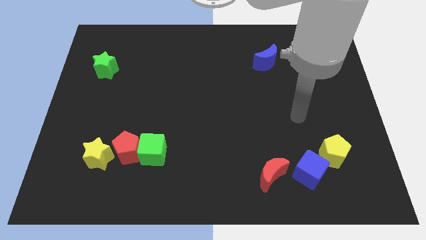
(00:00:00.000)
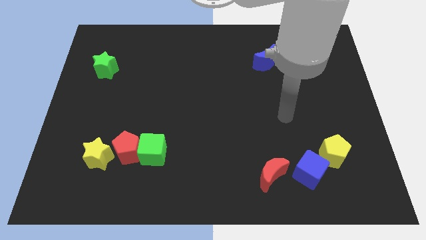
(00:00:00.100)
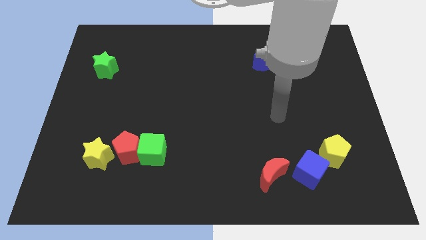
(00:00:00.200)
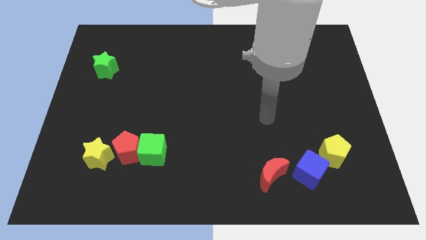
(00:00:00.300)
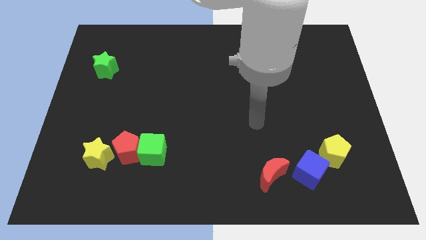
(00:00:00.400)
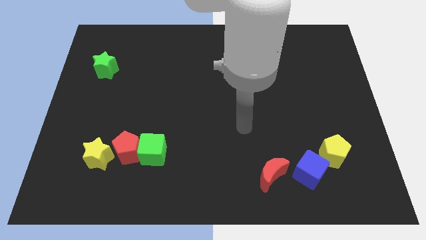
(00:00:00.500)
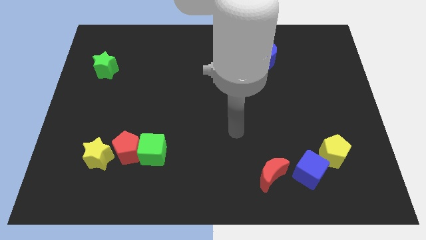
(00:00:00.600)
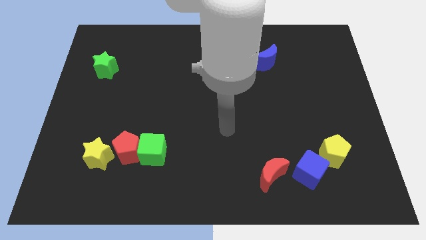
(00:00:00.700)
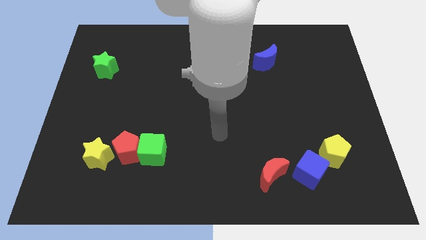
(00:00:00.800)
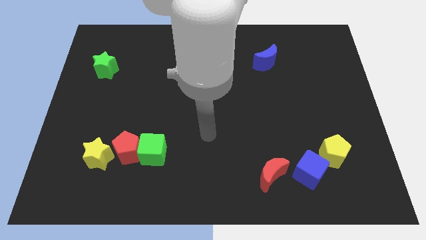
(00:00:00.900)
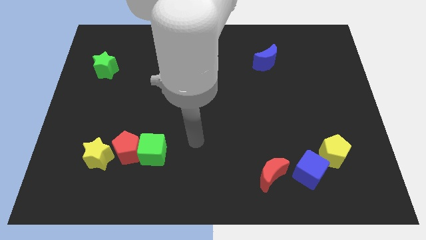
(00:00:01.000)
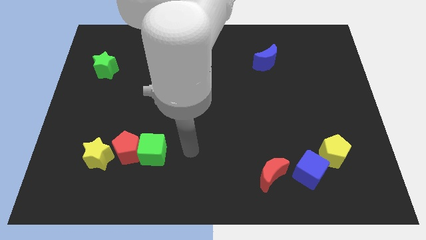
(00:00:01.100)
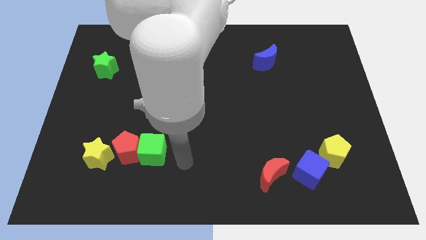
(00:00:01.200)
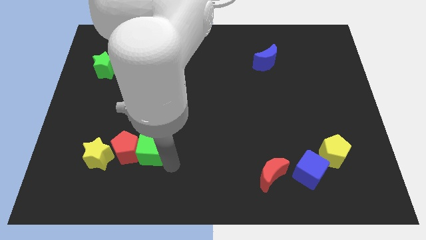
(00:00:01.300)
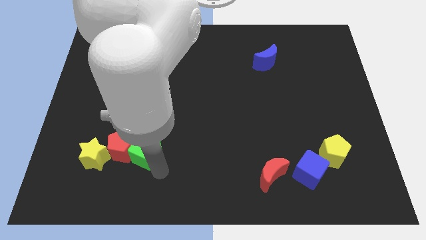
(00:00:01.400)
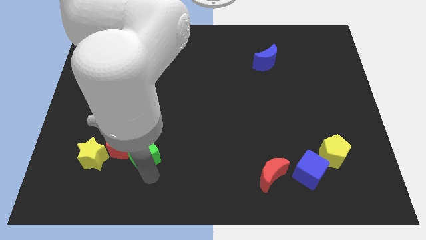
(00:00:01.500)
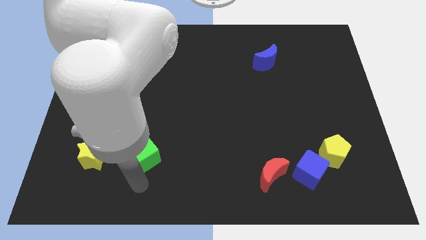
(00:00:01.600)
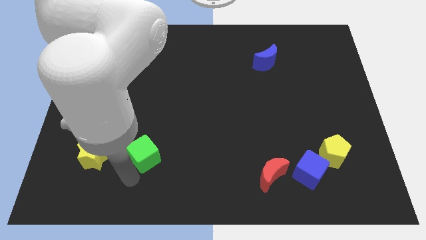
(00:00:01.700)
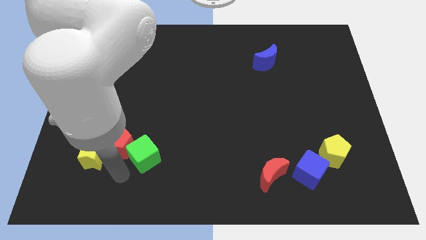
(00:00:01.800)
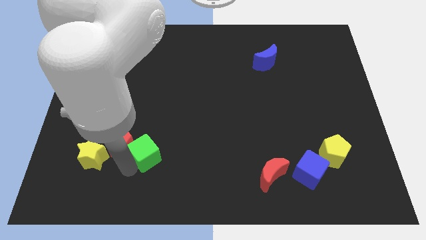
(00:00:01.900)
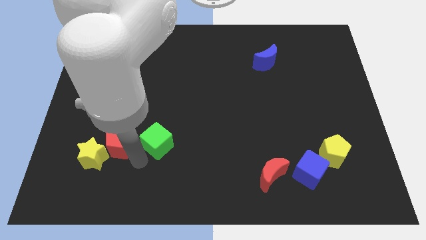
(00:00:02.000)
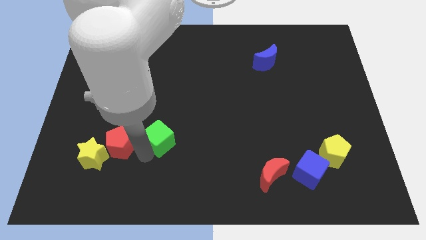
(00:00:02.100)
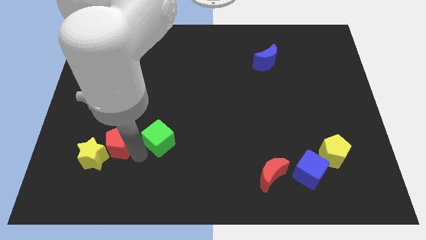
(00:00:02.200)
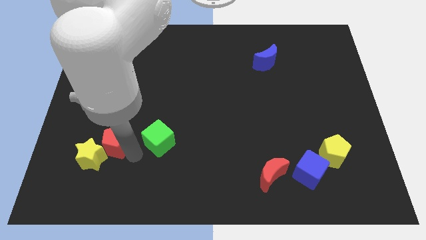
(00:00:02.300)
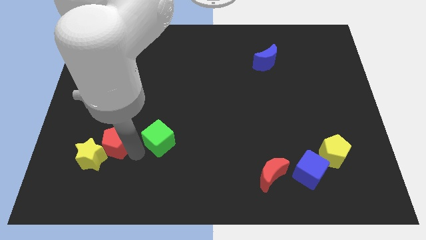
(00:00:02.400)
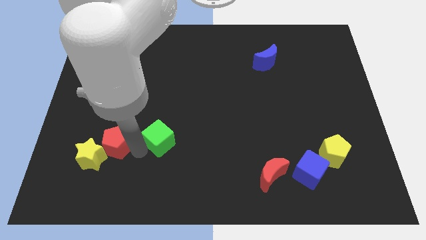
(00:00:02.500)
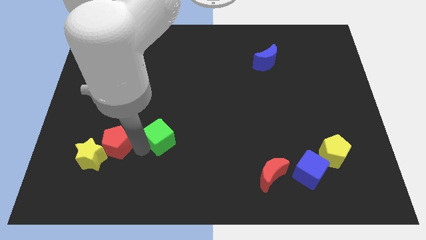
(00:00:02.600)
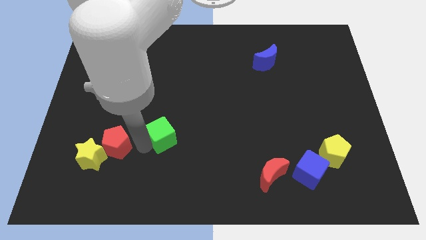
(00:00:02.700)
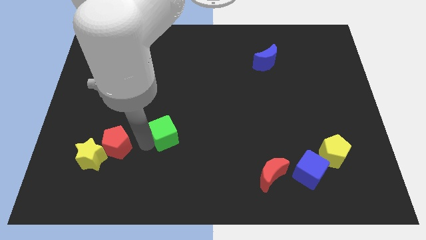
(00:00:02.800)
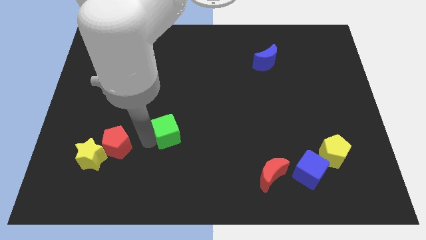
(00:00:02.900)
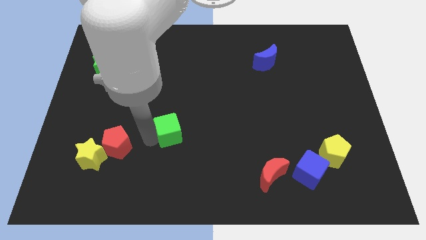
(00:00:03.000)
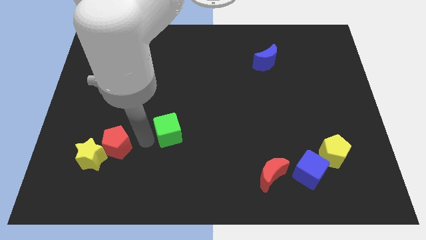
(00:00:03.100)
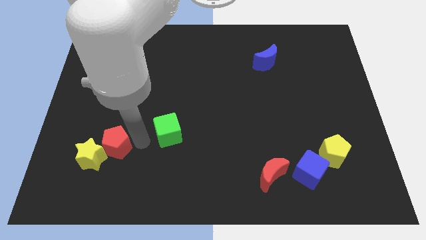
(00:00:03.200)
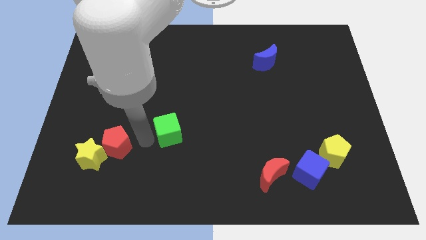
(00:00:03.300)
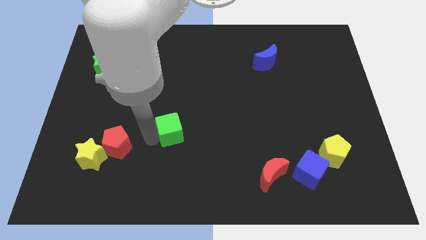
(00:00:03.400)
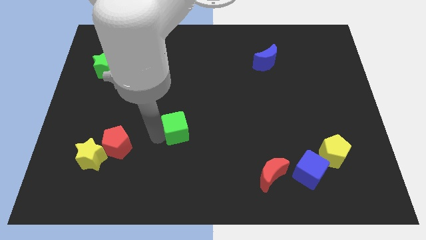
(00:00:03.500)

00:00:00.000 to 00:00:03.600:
move the green cube a little diagonally up and right

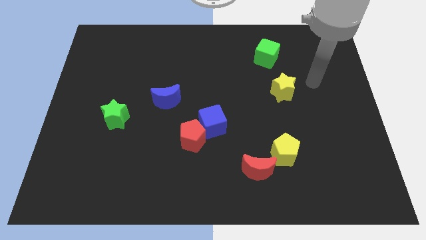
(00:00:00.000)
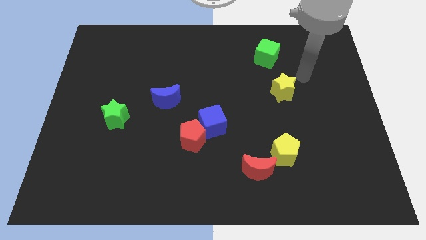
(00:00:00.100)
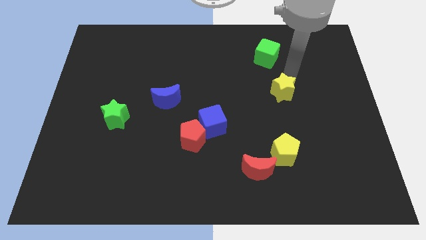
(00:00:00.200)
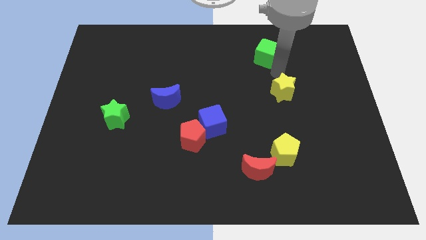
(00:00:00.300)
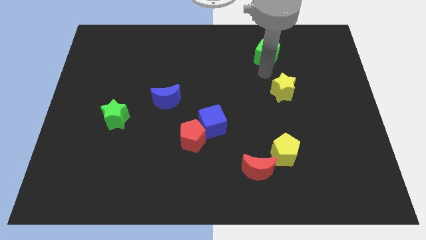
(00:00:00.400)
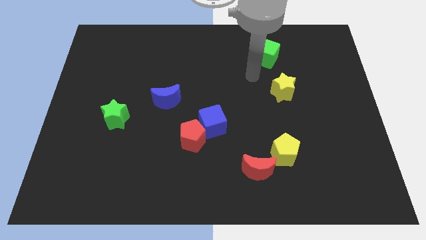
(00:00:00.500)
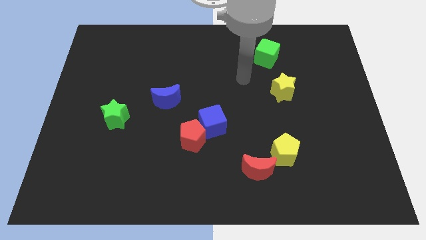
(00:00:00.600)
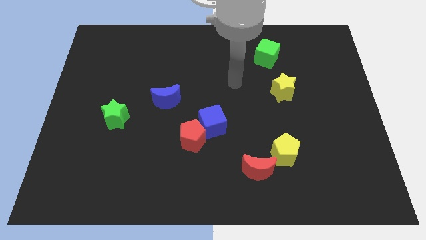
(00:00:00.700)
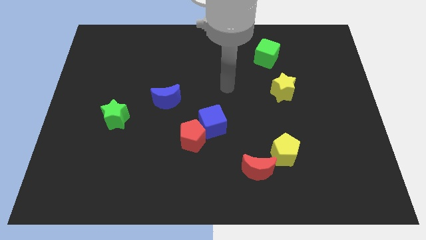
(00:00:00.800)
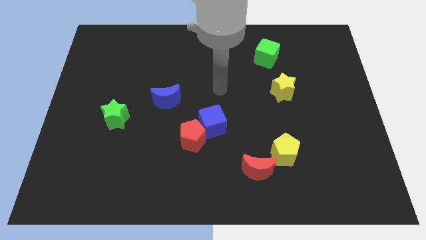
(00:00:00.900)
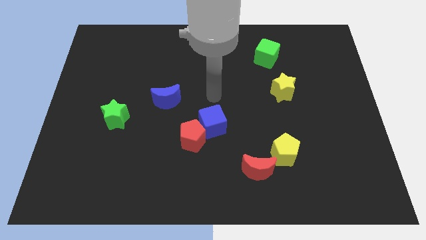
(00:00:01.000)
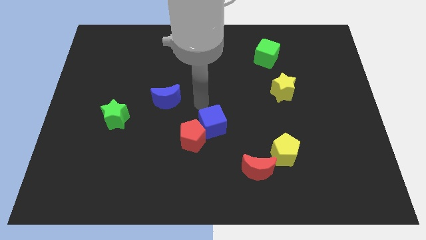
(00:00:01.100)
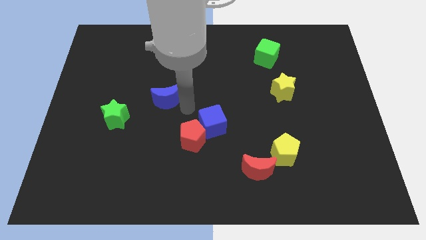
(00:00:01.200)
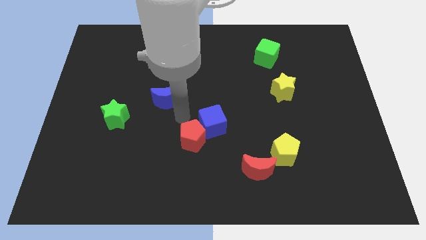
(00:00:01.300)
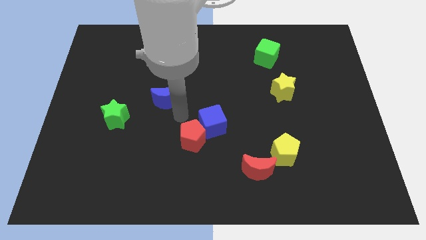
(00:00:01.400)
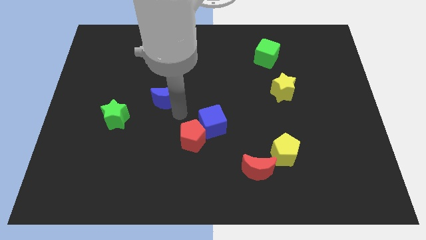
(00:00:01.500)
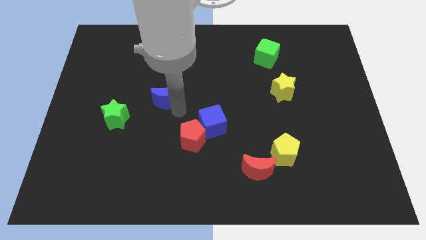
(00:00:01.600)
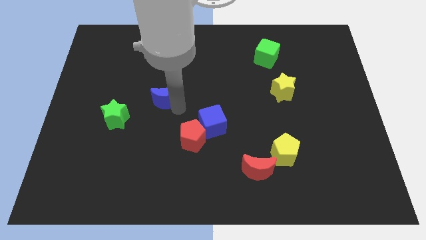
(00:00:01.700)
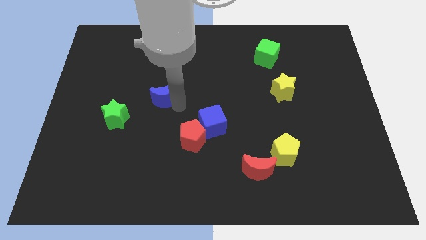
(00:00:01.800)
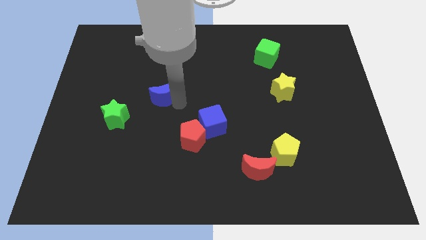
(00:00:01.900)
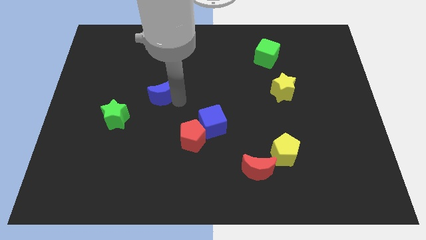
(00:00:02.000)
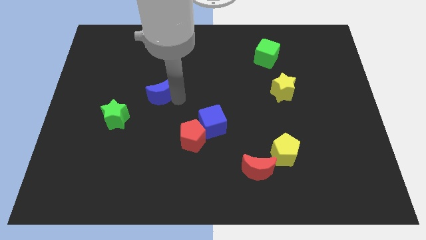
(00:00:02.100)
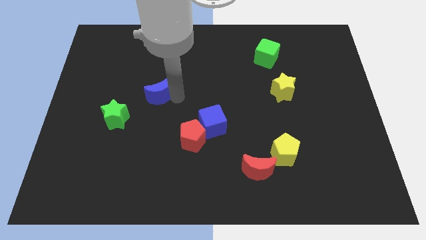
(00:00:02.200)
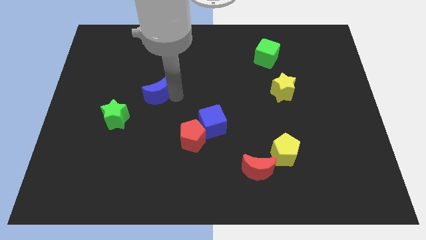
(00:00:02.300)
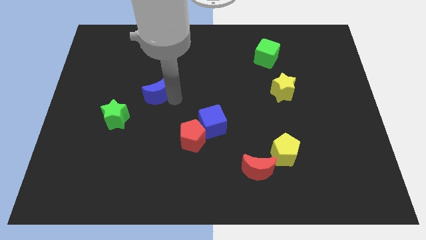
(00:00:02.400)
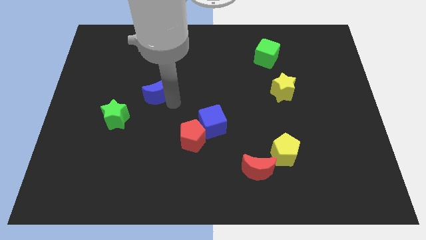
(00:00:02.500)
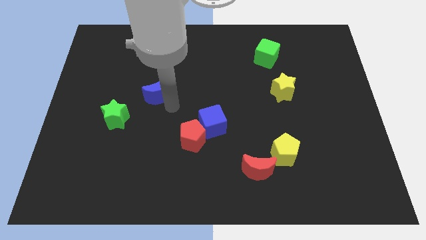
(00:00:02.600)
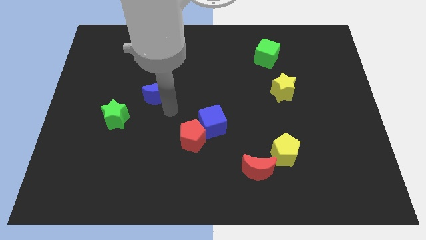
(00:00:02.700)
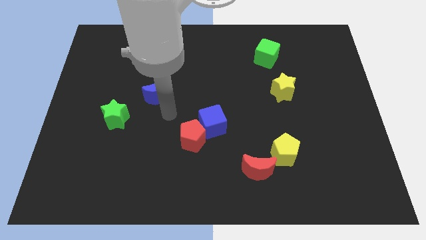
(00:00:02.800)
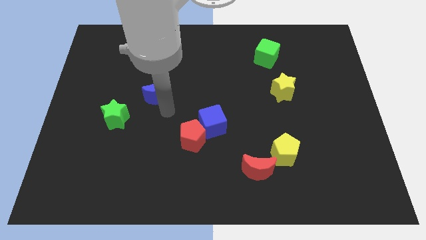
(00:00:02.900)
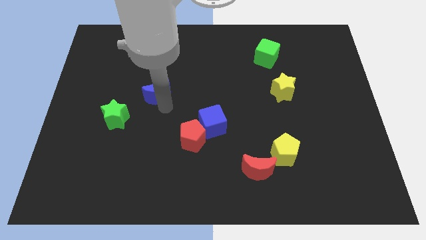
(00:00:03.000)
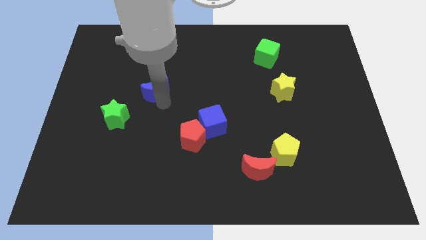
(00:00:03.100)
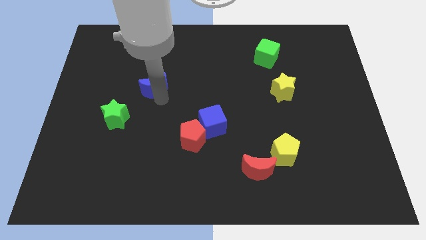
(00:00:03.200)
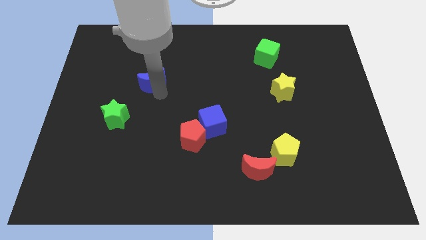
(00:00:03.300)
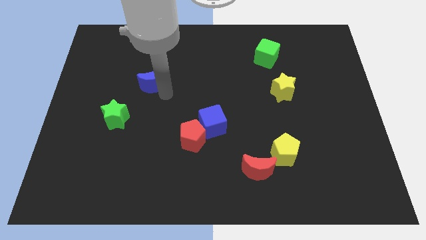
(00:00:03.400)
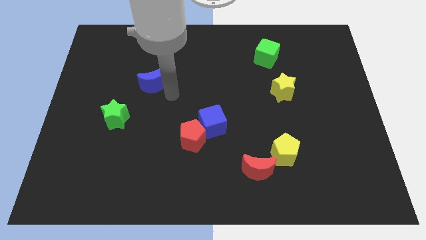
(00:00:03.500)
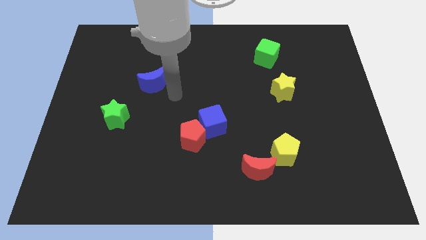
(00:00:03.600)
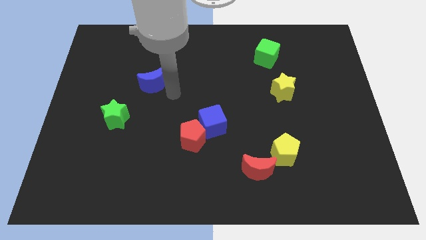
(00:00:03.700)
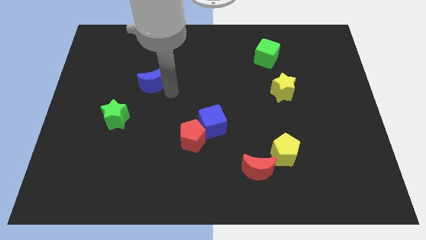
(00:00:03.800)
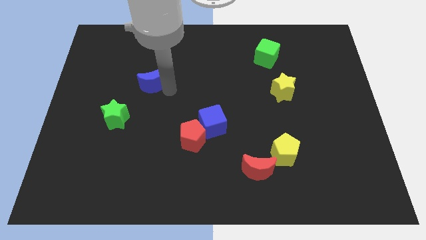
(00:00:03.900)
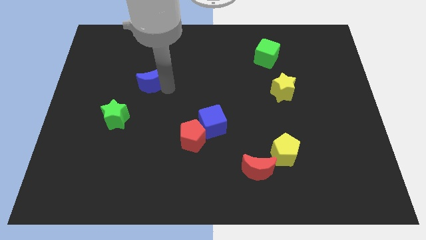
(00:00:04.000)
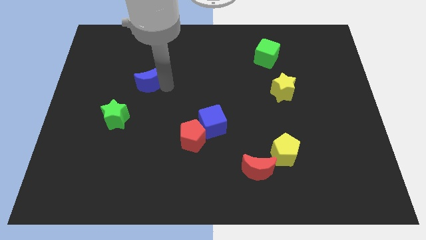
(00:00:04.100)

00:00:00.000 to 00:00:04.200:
slide the blue moon slightly up and then to the left

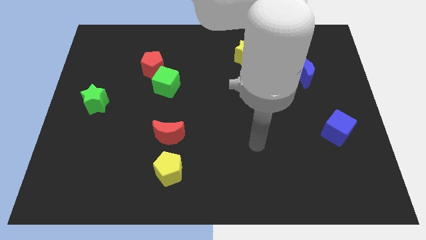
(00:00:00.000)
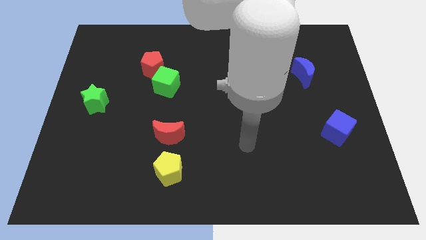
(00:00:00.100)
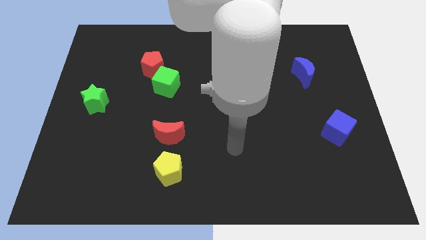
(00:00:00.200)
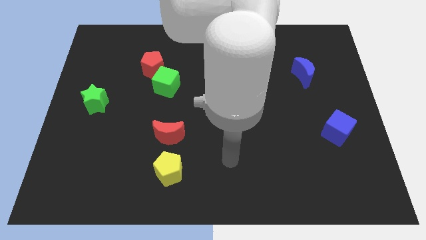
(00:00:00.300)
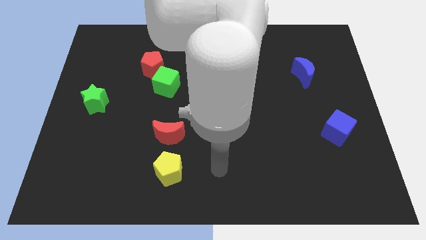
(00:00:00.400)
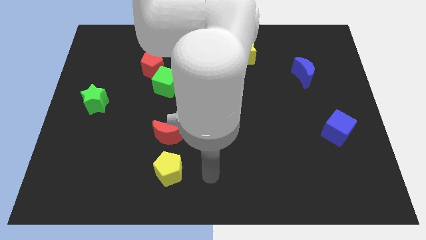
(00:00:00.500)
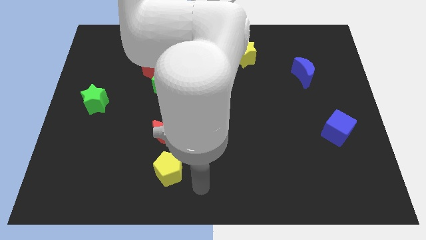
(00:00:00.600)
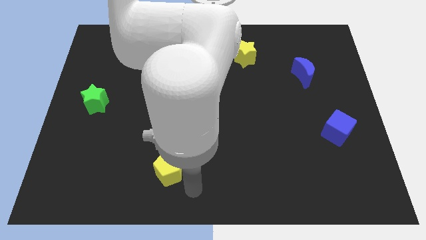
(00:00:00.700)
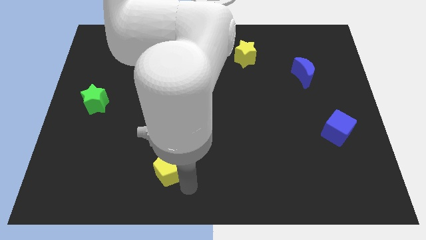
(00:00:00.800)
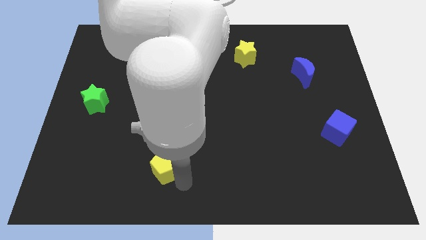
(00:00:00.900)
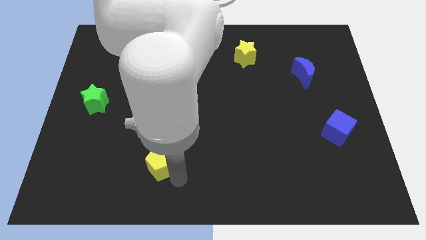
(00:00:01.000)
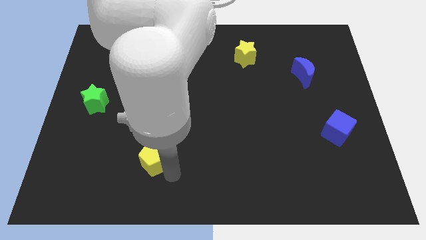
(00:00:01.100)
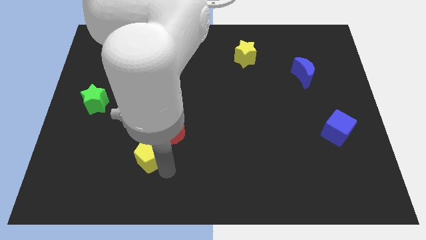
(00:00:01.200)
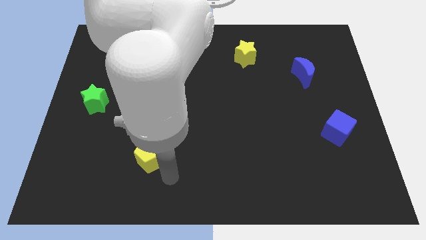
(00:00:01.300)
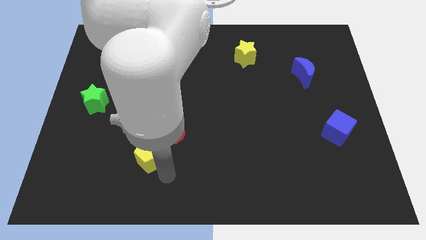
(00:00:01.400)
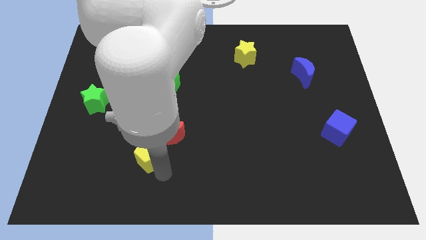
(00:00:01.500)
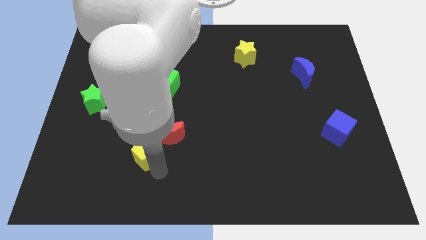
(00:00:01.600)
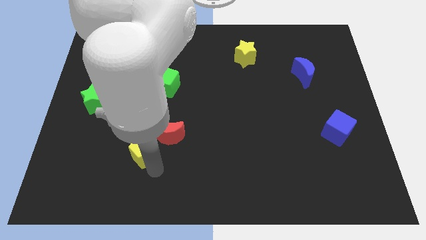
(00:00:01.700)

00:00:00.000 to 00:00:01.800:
slide the yellow pentagon a little bit up and to the left diagonally
